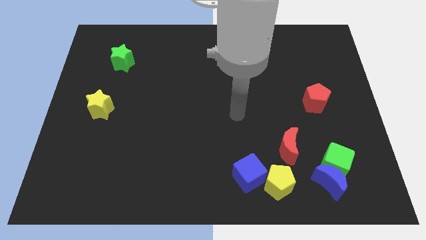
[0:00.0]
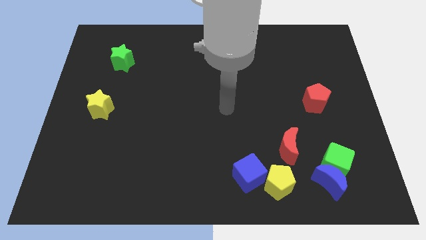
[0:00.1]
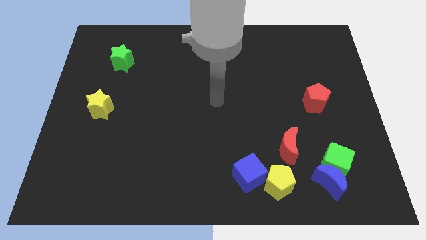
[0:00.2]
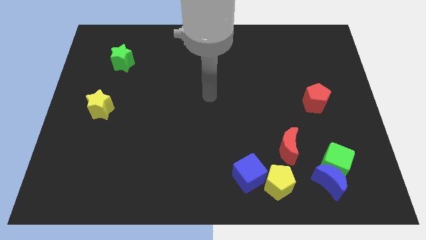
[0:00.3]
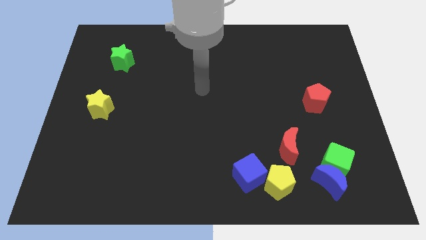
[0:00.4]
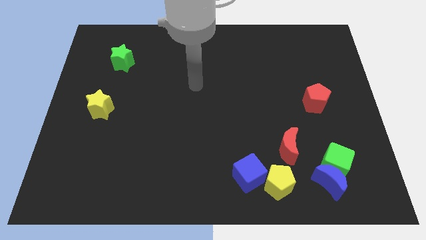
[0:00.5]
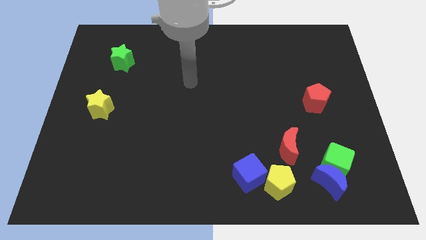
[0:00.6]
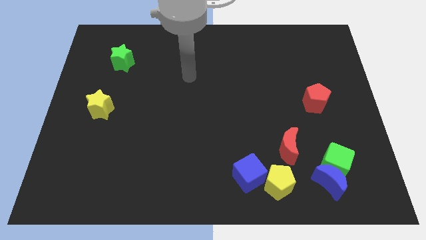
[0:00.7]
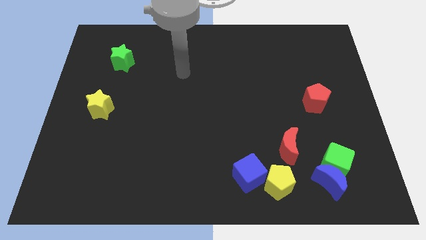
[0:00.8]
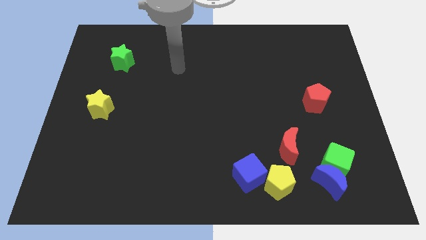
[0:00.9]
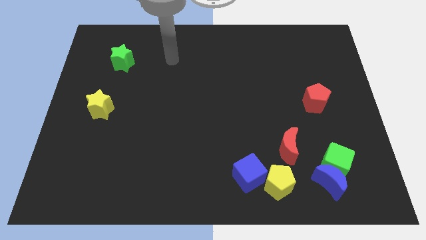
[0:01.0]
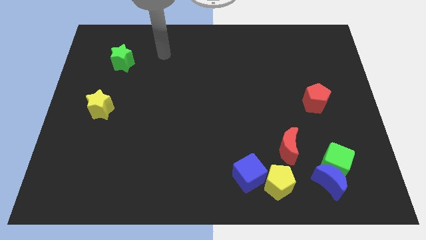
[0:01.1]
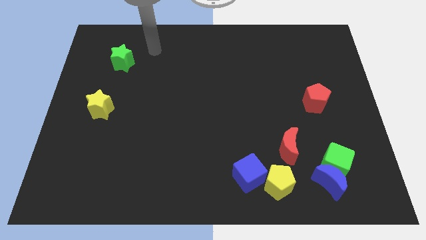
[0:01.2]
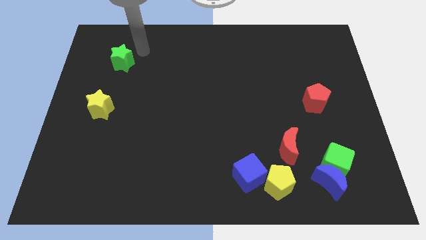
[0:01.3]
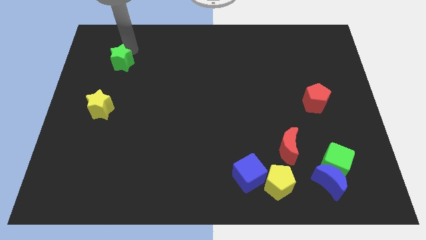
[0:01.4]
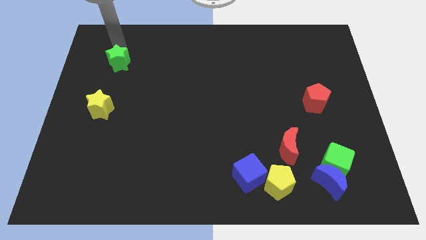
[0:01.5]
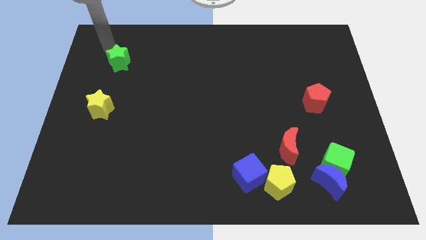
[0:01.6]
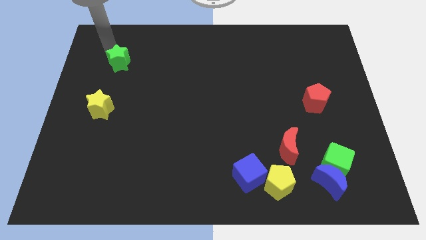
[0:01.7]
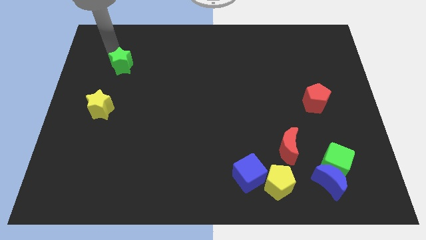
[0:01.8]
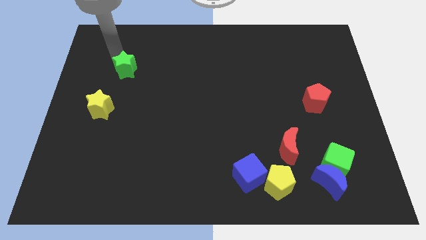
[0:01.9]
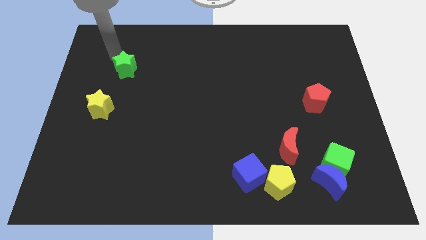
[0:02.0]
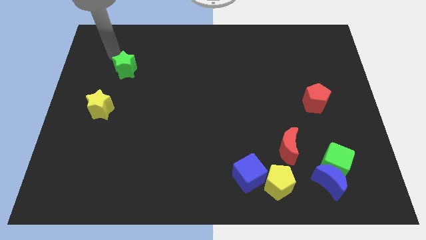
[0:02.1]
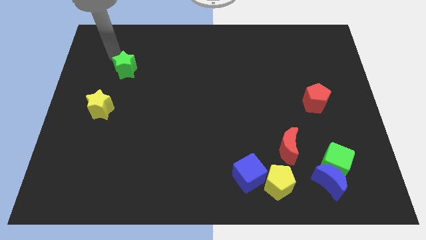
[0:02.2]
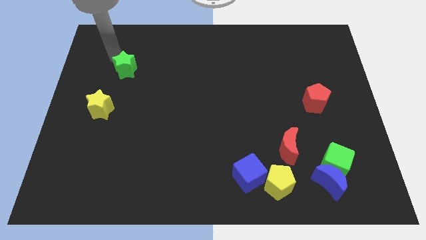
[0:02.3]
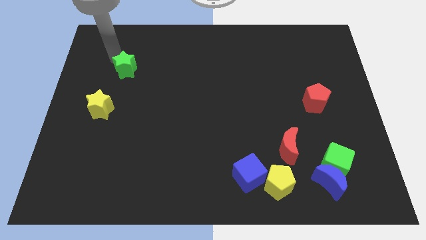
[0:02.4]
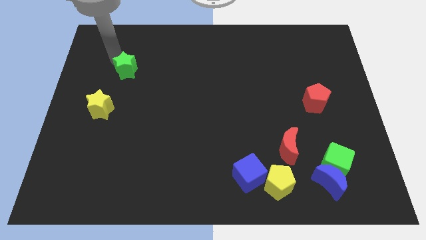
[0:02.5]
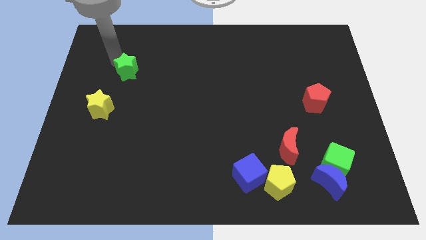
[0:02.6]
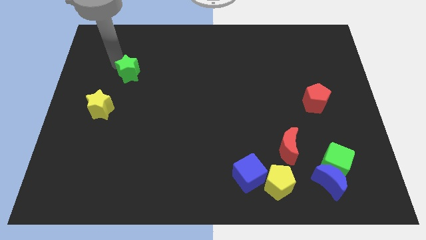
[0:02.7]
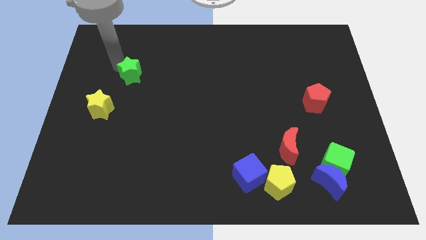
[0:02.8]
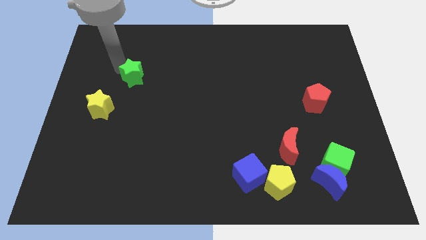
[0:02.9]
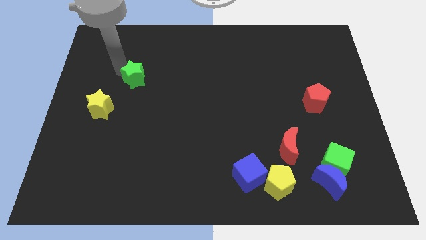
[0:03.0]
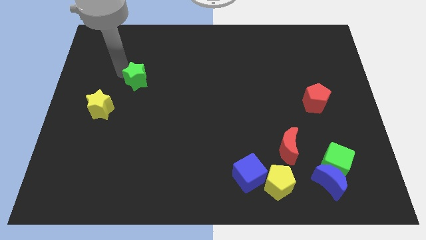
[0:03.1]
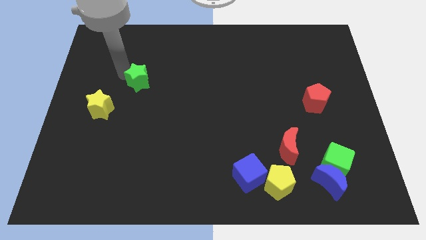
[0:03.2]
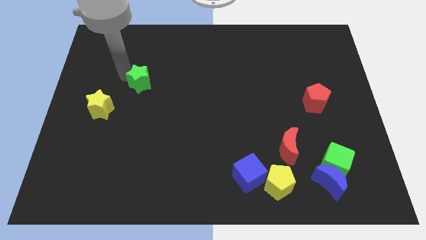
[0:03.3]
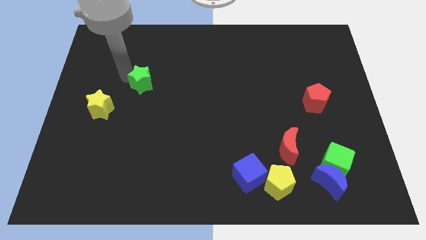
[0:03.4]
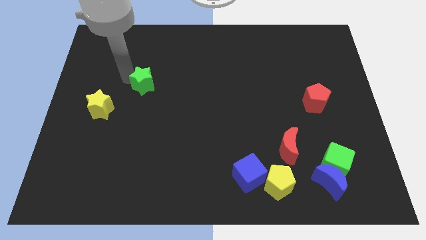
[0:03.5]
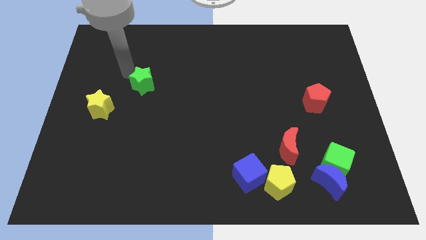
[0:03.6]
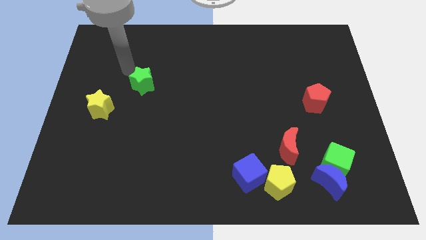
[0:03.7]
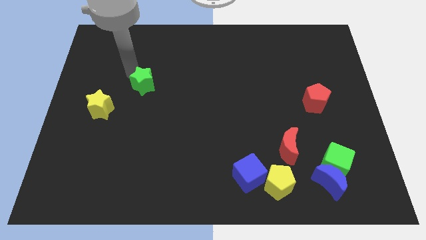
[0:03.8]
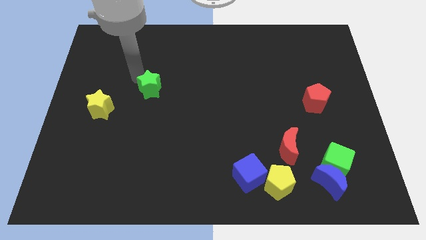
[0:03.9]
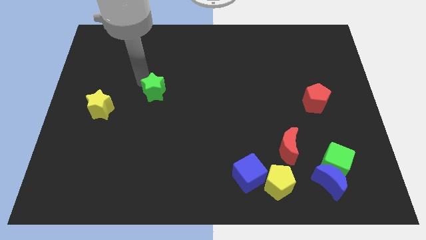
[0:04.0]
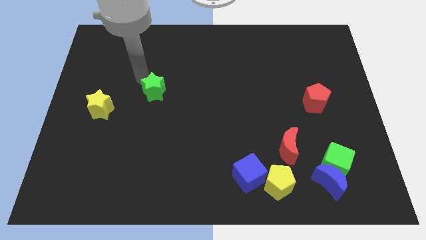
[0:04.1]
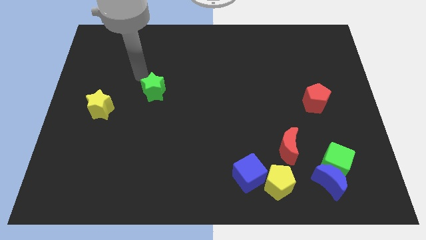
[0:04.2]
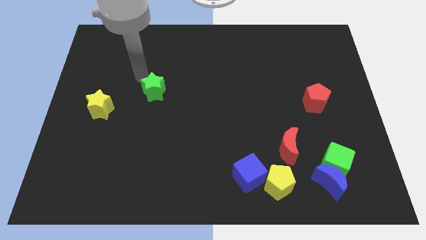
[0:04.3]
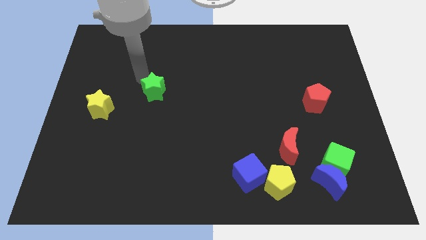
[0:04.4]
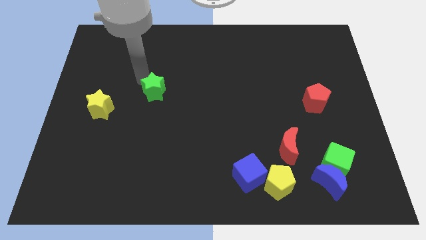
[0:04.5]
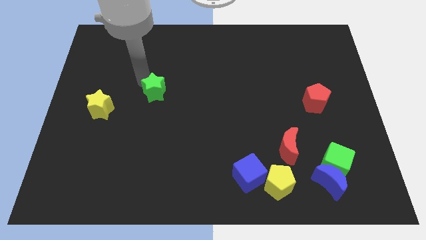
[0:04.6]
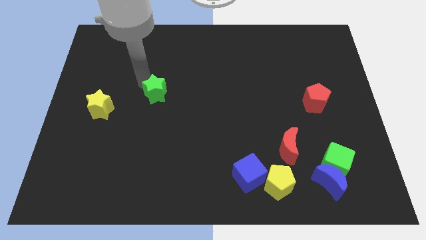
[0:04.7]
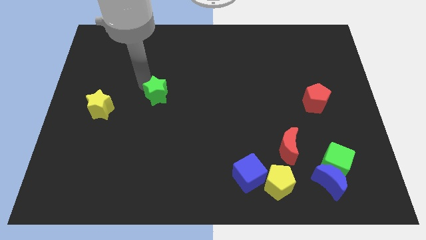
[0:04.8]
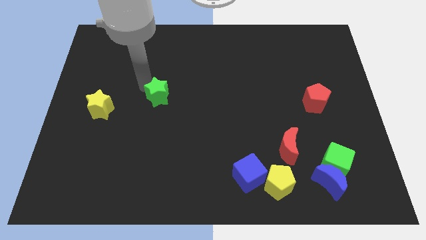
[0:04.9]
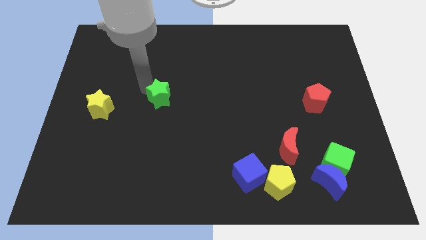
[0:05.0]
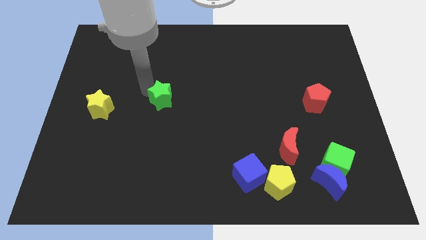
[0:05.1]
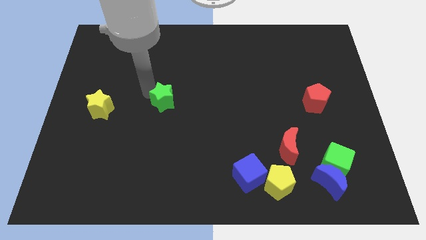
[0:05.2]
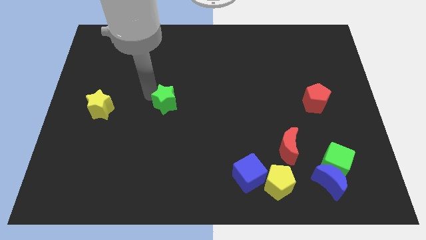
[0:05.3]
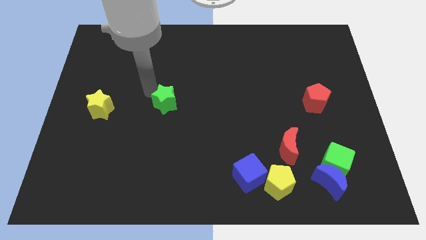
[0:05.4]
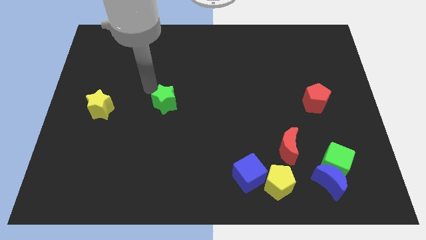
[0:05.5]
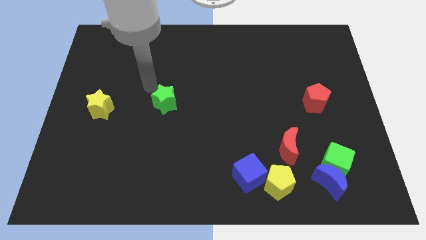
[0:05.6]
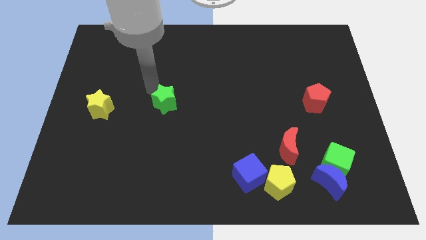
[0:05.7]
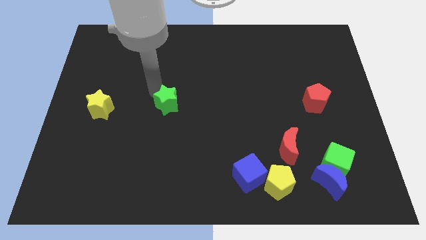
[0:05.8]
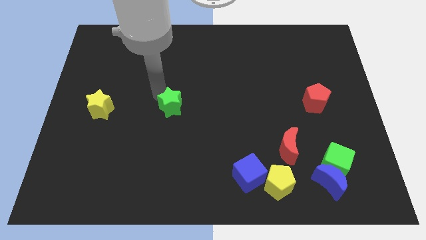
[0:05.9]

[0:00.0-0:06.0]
slide the green star downwards and then right

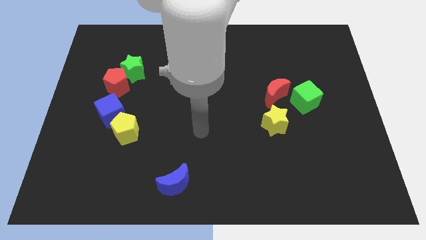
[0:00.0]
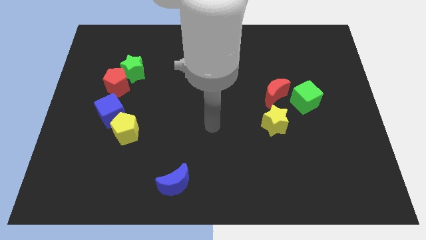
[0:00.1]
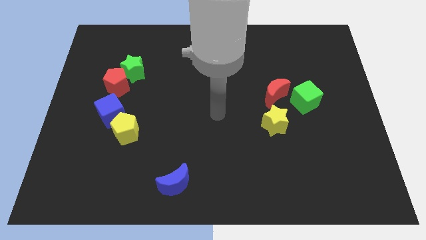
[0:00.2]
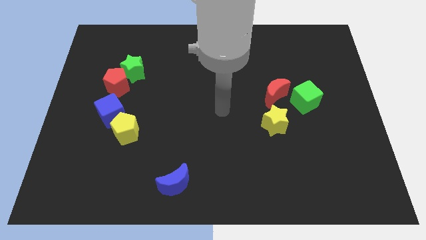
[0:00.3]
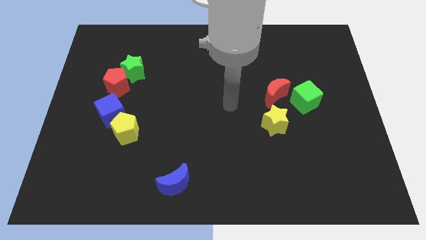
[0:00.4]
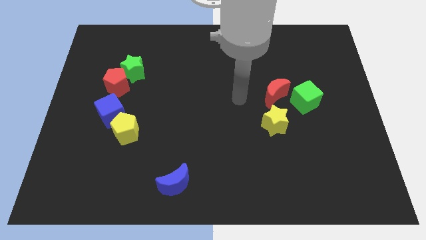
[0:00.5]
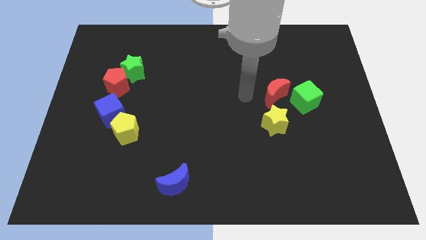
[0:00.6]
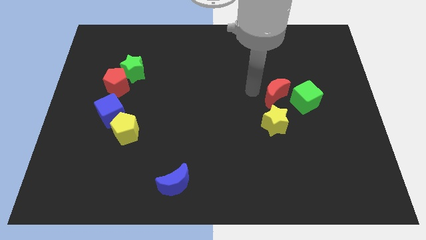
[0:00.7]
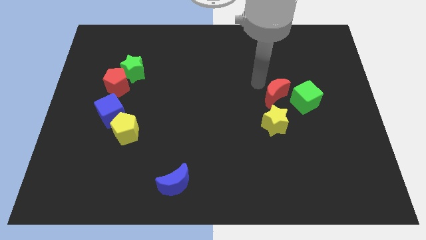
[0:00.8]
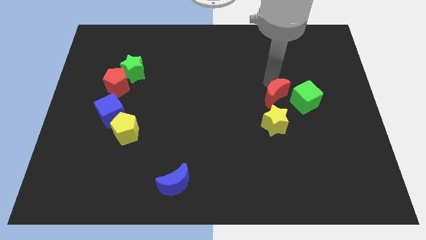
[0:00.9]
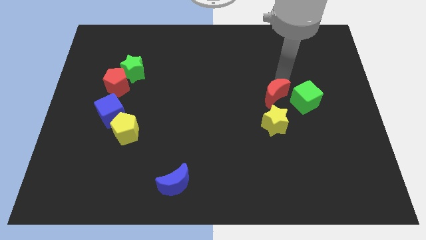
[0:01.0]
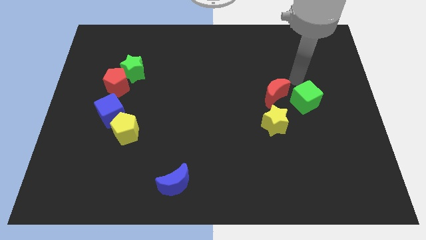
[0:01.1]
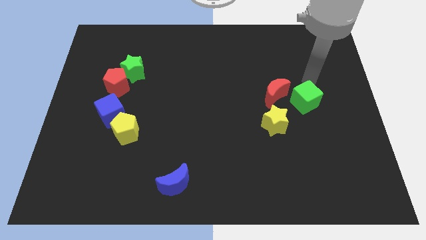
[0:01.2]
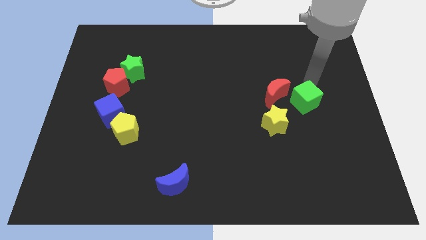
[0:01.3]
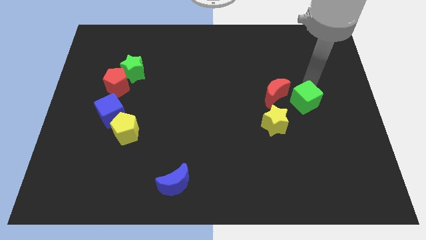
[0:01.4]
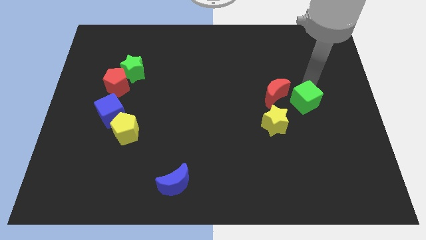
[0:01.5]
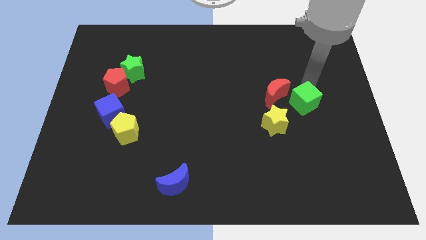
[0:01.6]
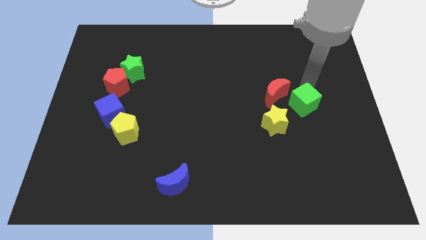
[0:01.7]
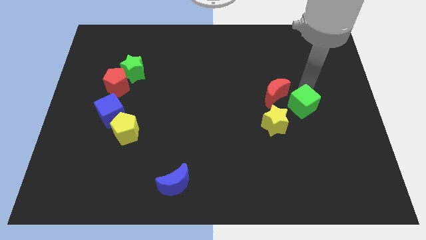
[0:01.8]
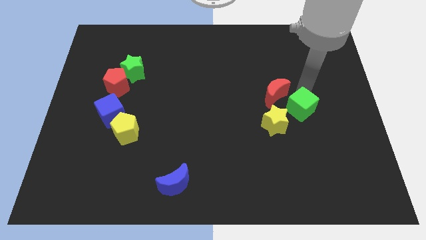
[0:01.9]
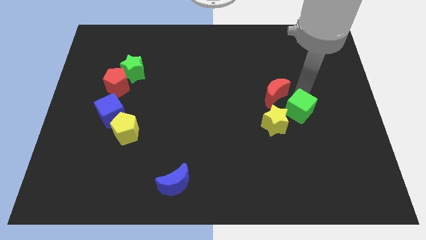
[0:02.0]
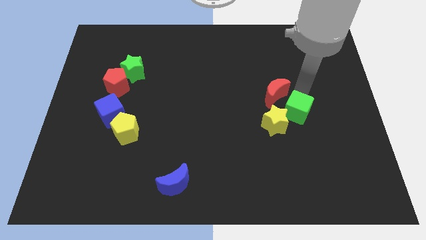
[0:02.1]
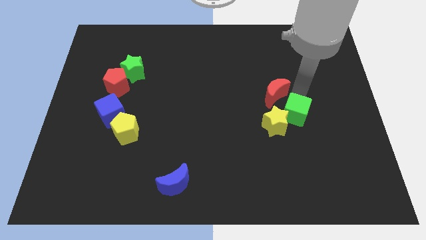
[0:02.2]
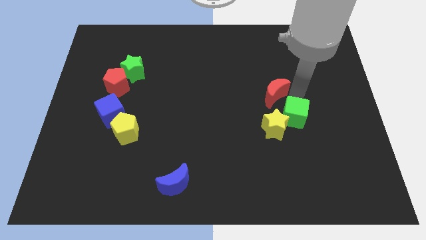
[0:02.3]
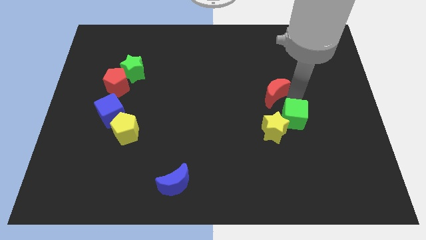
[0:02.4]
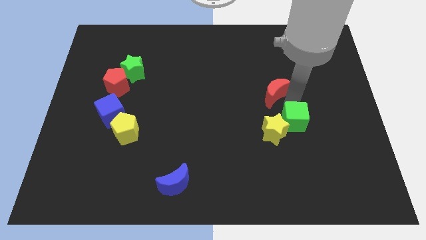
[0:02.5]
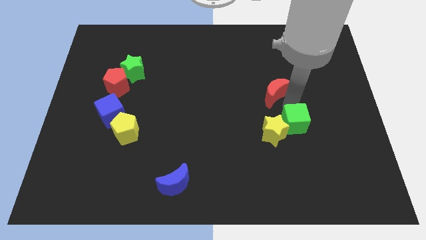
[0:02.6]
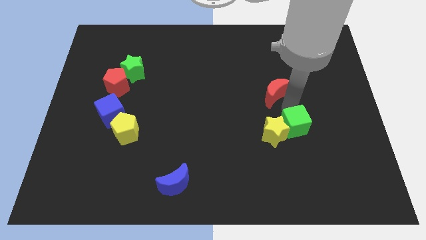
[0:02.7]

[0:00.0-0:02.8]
slightly push the green cube downwards
